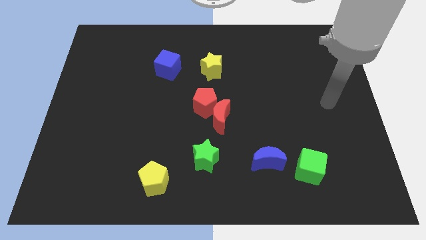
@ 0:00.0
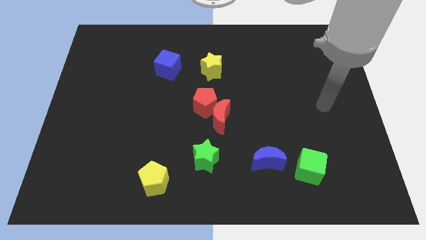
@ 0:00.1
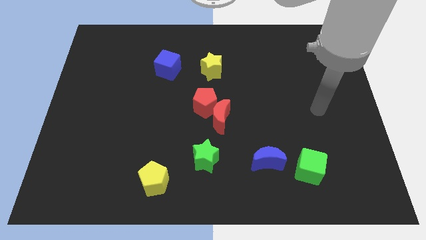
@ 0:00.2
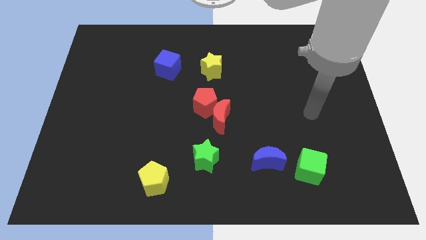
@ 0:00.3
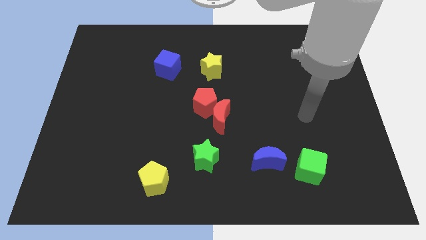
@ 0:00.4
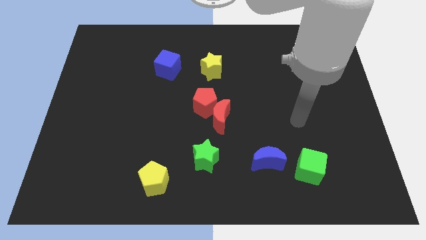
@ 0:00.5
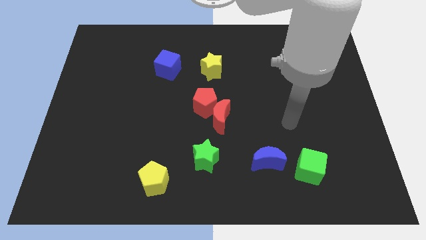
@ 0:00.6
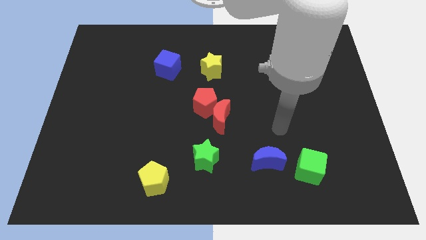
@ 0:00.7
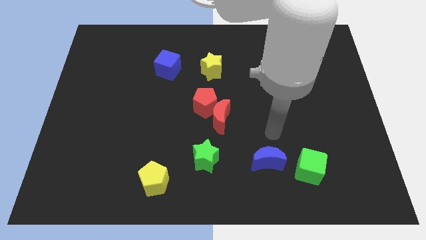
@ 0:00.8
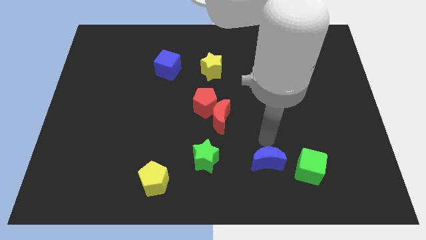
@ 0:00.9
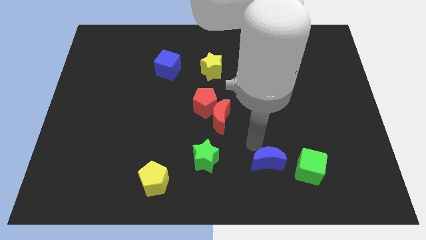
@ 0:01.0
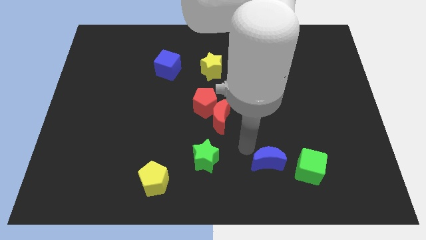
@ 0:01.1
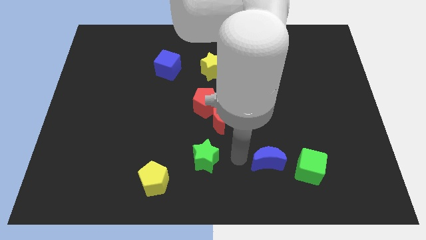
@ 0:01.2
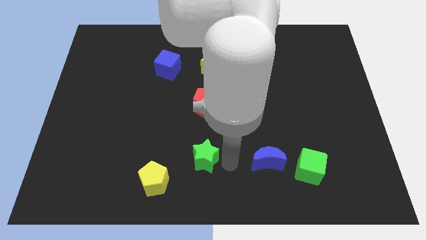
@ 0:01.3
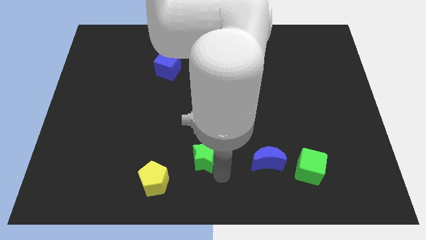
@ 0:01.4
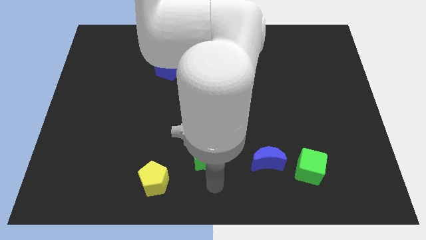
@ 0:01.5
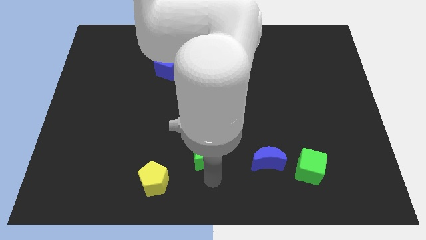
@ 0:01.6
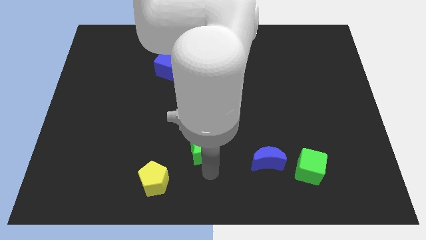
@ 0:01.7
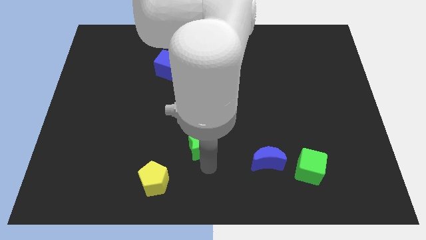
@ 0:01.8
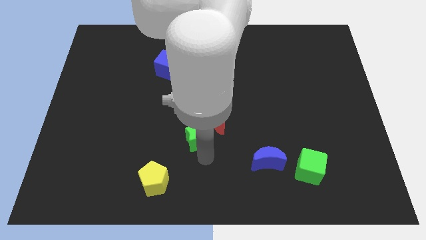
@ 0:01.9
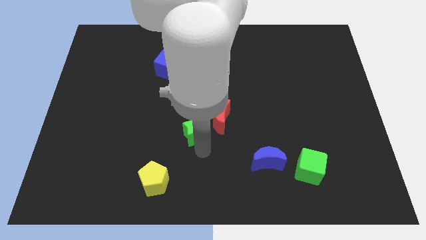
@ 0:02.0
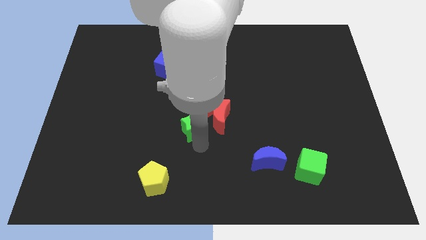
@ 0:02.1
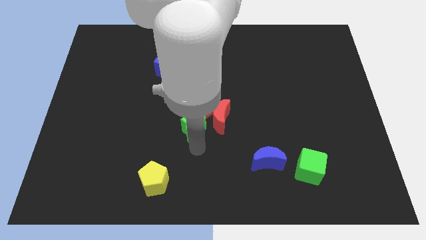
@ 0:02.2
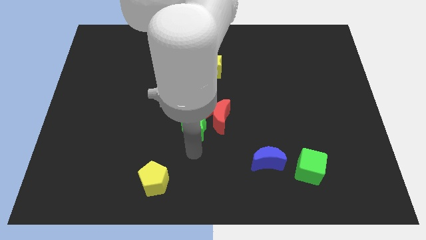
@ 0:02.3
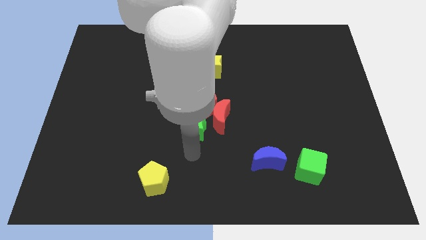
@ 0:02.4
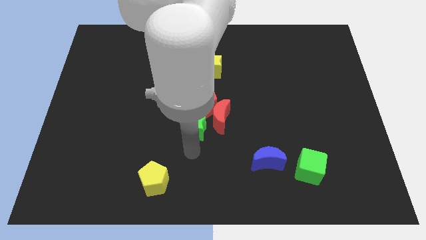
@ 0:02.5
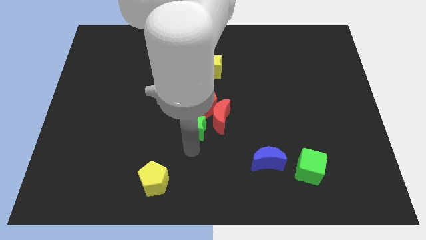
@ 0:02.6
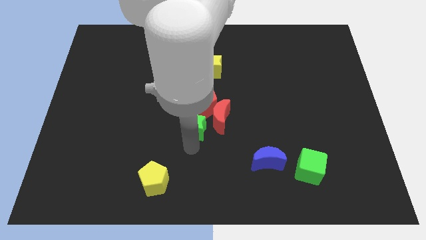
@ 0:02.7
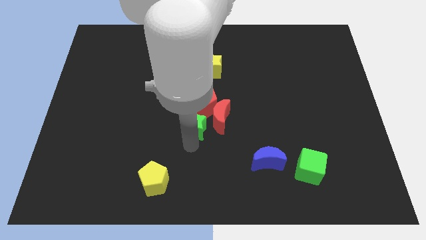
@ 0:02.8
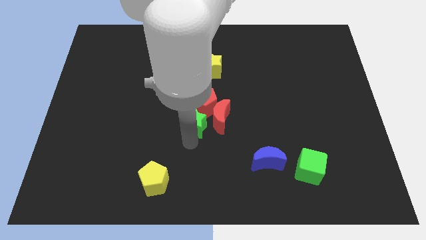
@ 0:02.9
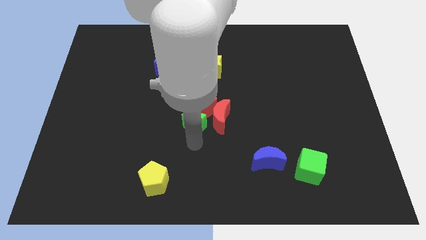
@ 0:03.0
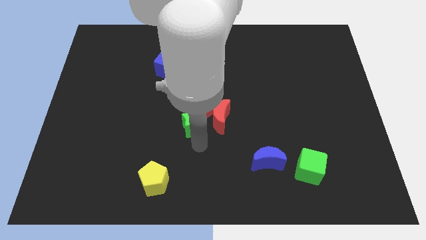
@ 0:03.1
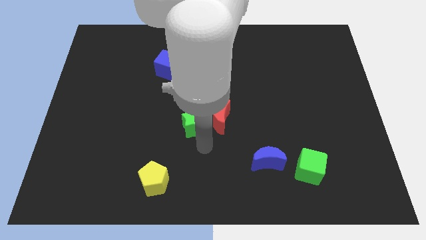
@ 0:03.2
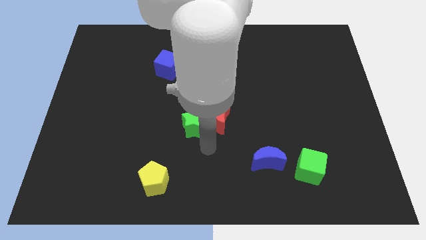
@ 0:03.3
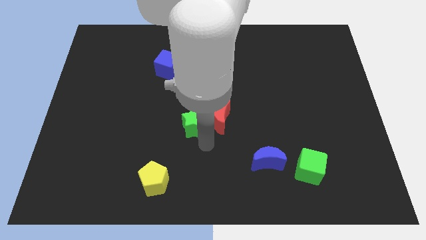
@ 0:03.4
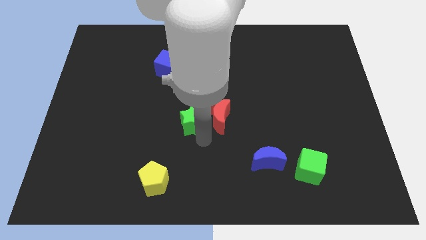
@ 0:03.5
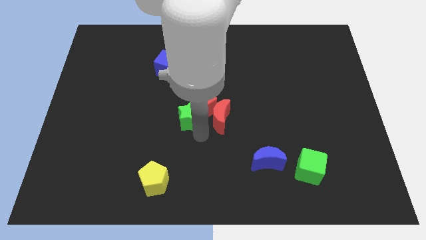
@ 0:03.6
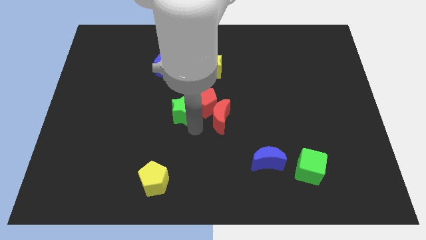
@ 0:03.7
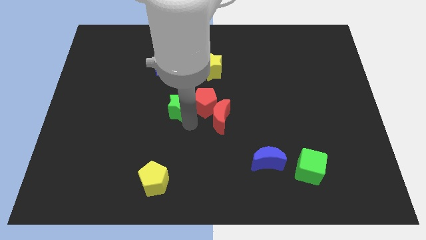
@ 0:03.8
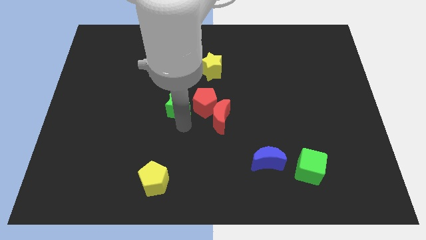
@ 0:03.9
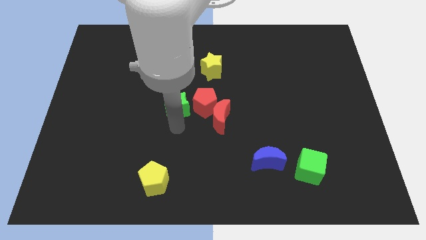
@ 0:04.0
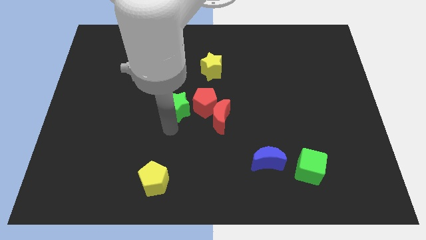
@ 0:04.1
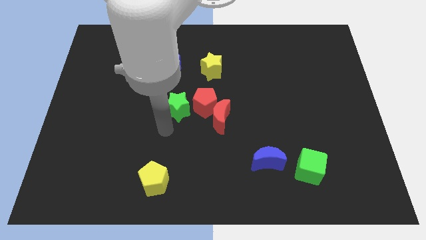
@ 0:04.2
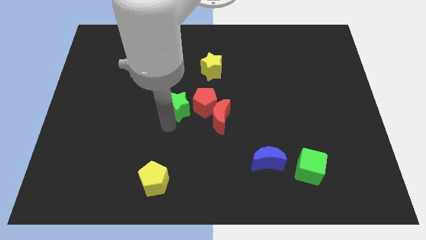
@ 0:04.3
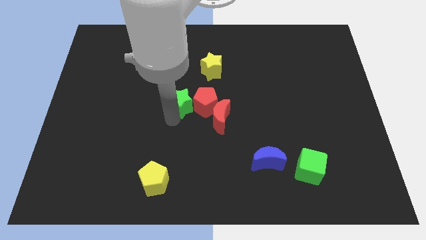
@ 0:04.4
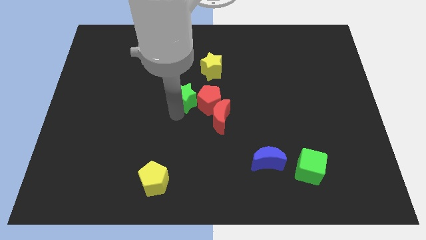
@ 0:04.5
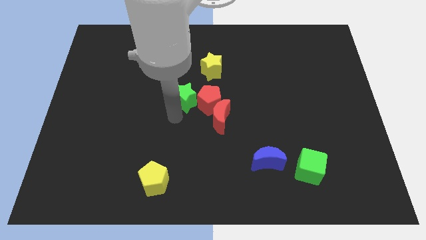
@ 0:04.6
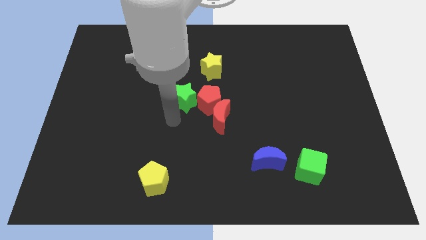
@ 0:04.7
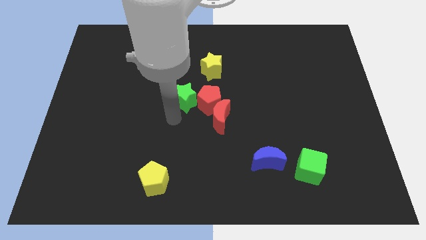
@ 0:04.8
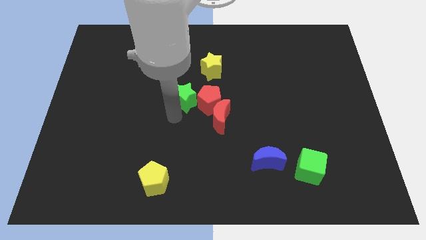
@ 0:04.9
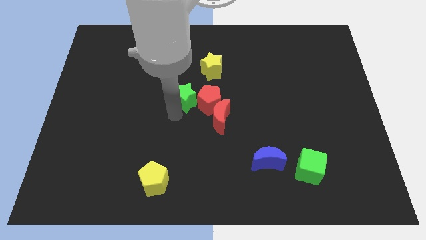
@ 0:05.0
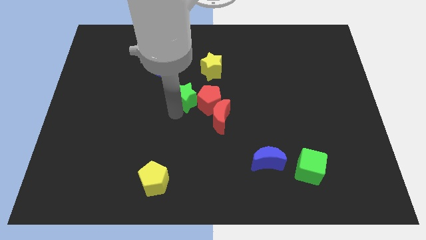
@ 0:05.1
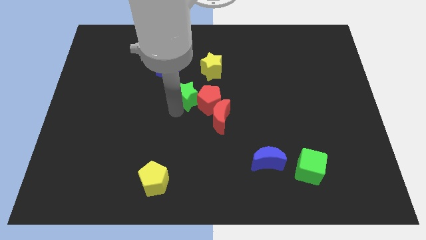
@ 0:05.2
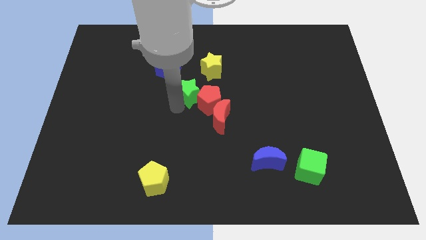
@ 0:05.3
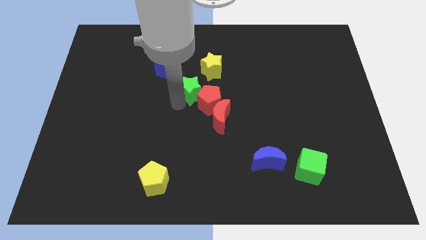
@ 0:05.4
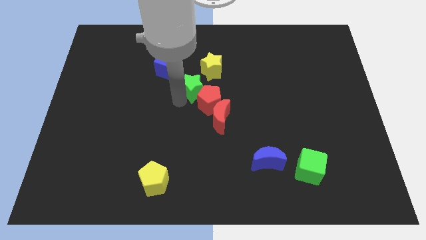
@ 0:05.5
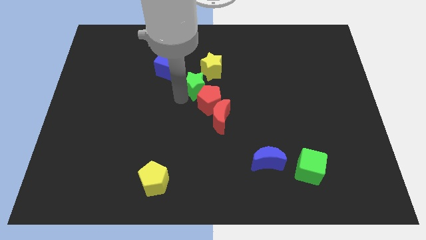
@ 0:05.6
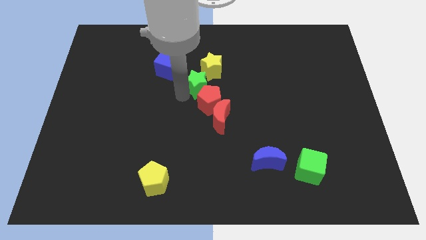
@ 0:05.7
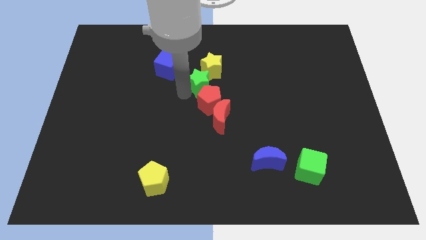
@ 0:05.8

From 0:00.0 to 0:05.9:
slide the green star close to the yellow star

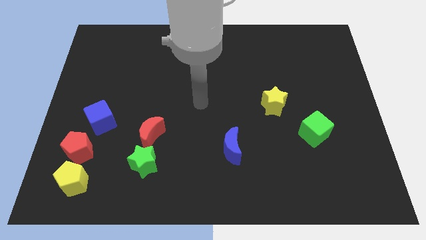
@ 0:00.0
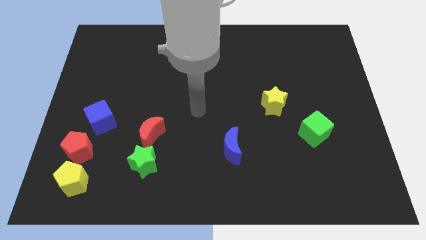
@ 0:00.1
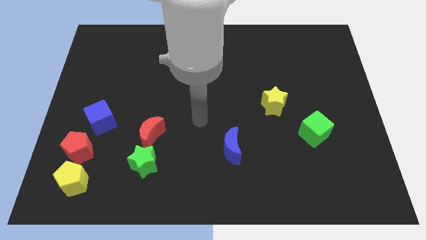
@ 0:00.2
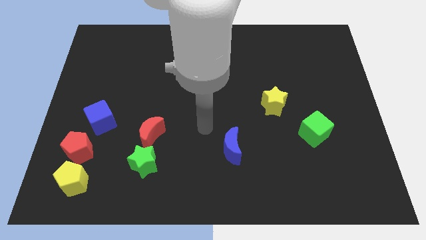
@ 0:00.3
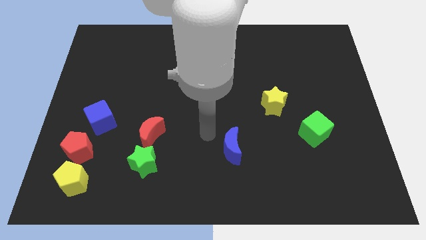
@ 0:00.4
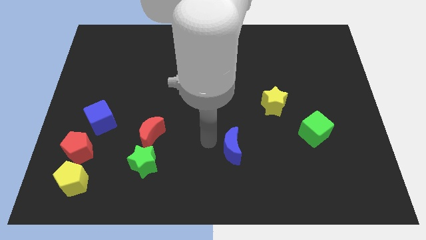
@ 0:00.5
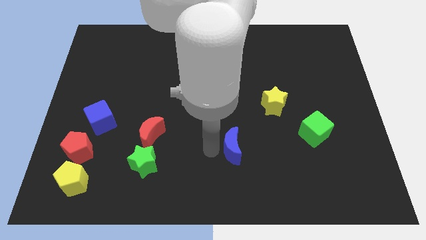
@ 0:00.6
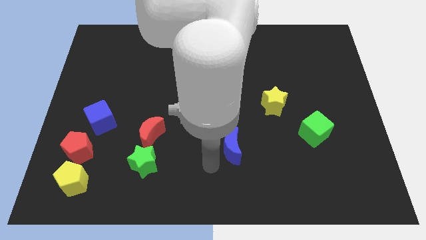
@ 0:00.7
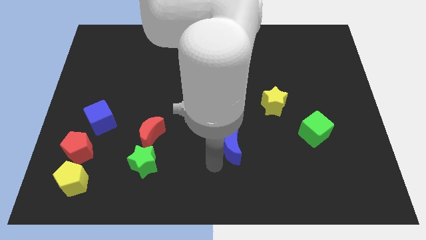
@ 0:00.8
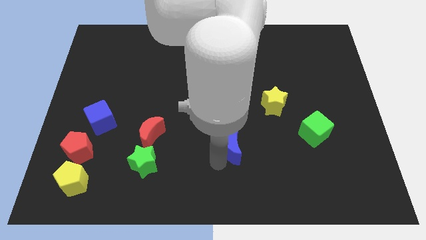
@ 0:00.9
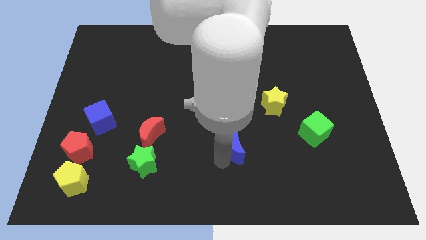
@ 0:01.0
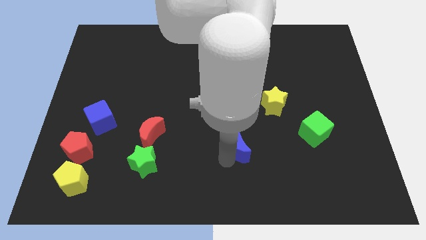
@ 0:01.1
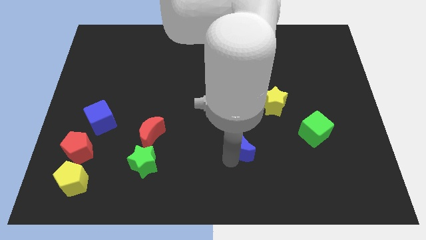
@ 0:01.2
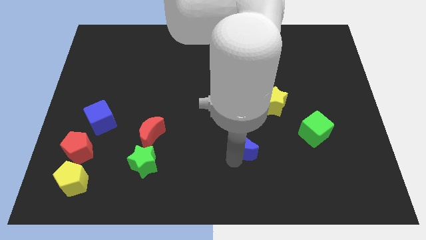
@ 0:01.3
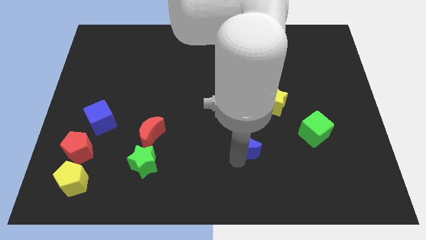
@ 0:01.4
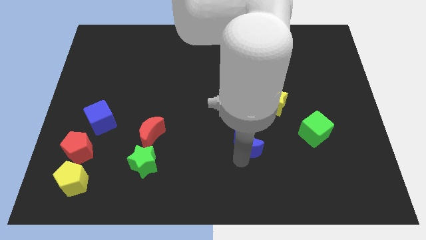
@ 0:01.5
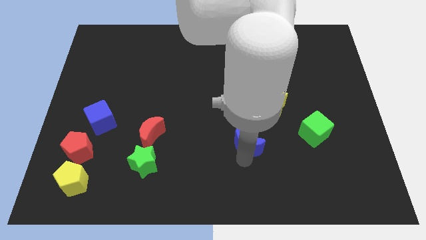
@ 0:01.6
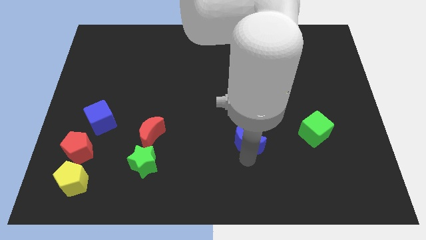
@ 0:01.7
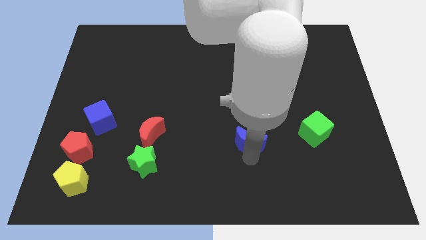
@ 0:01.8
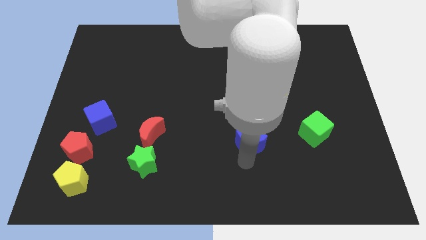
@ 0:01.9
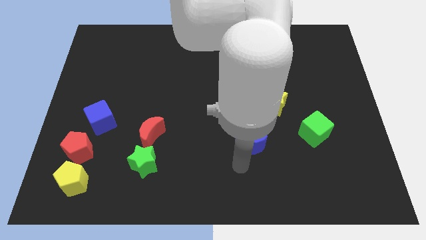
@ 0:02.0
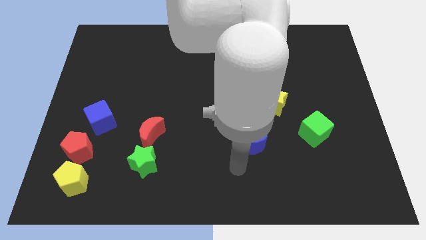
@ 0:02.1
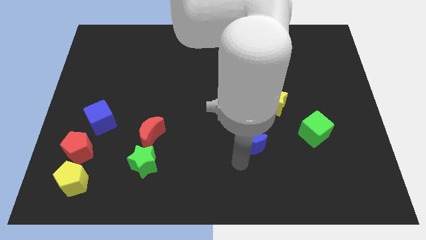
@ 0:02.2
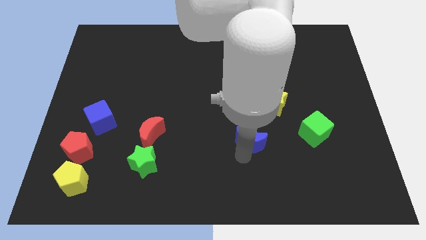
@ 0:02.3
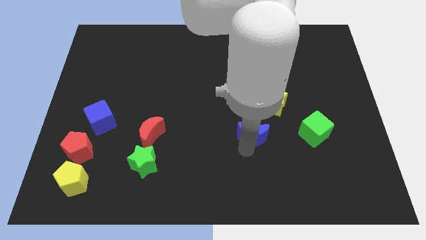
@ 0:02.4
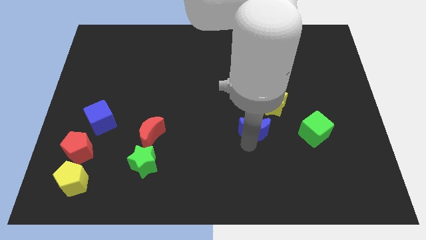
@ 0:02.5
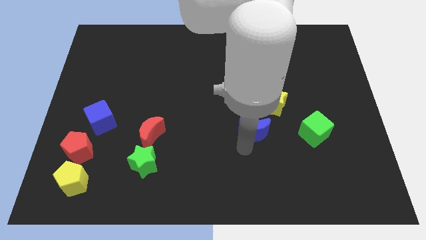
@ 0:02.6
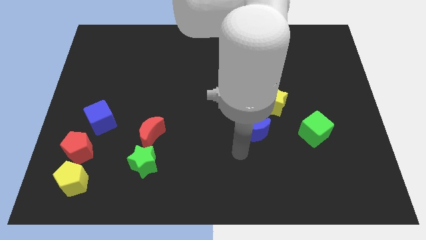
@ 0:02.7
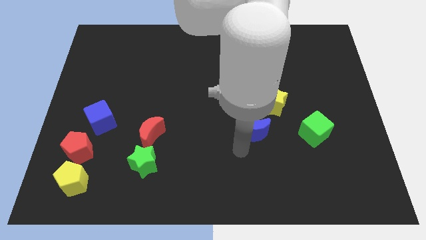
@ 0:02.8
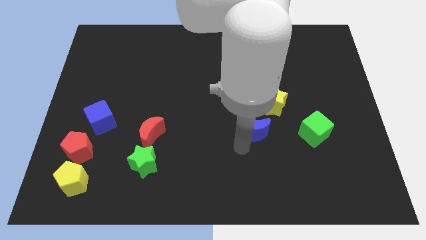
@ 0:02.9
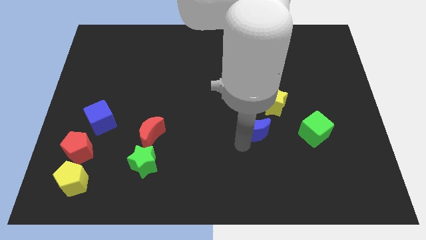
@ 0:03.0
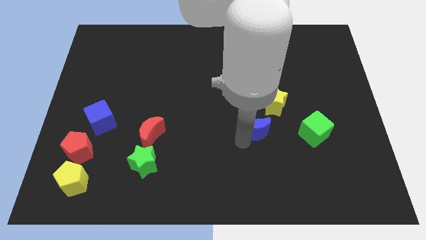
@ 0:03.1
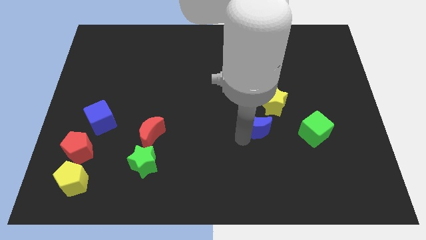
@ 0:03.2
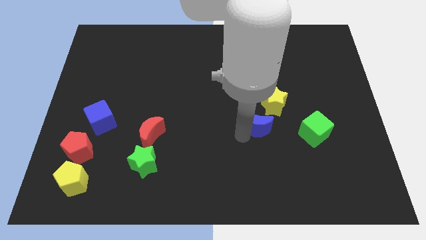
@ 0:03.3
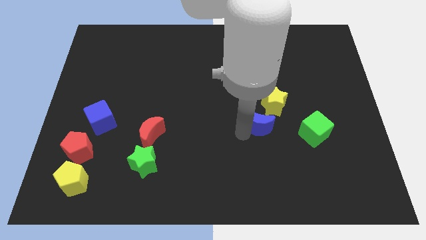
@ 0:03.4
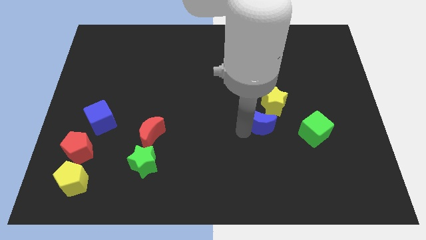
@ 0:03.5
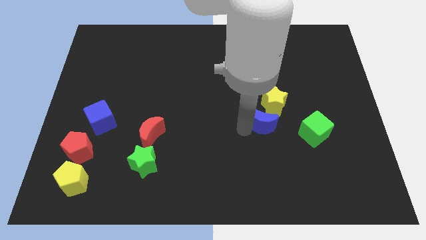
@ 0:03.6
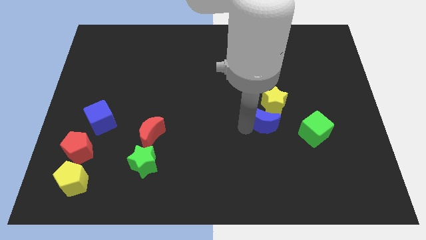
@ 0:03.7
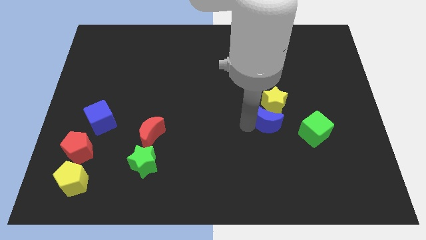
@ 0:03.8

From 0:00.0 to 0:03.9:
push the blue moon towards the yellow star
